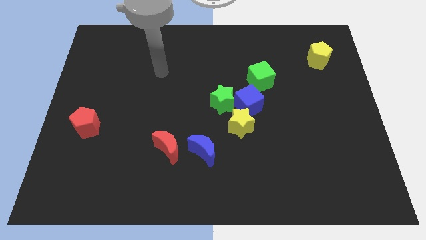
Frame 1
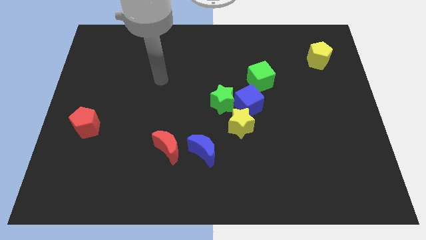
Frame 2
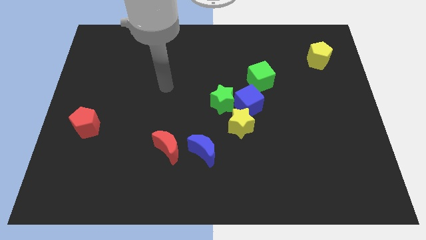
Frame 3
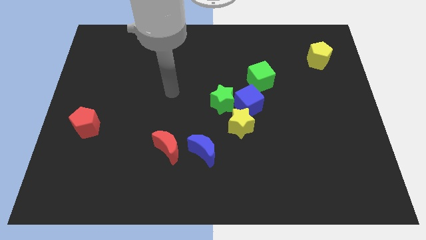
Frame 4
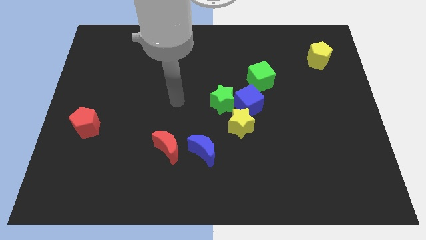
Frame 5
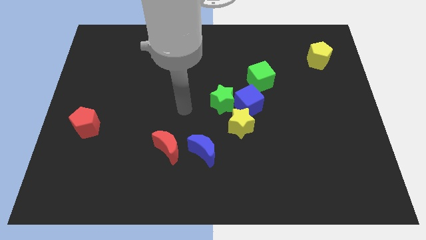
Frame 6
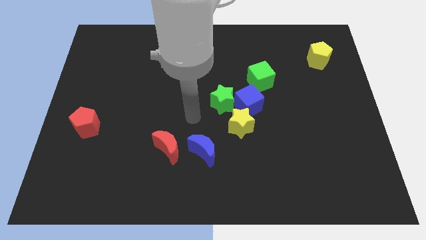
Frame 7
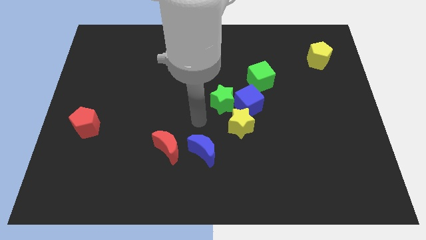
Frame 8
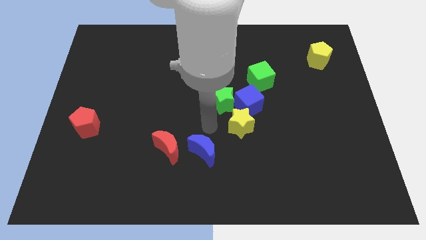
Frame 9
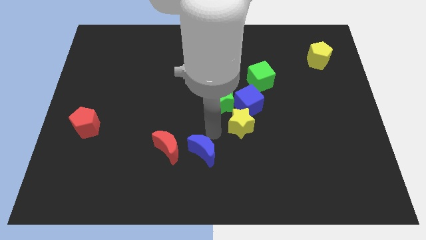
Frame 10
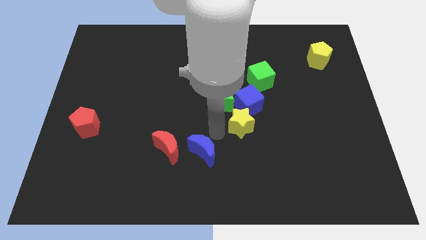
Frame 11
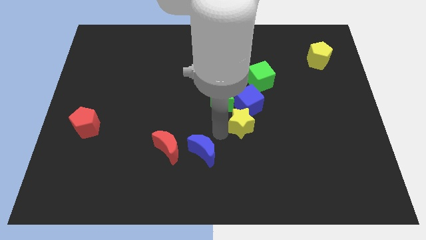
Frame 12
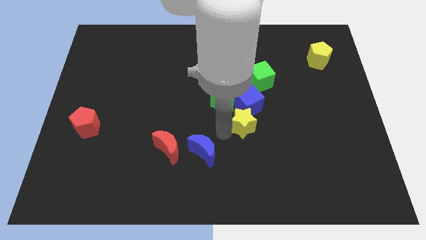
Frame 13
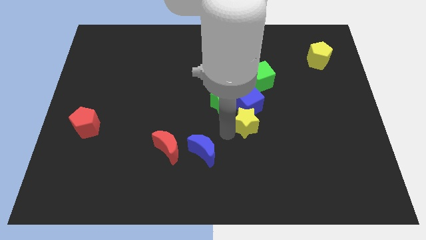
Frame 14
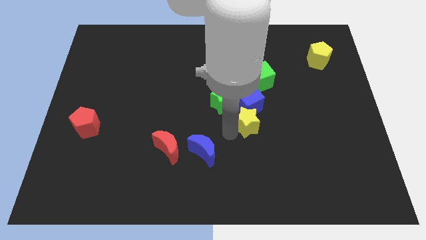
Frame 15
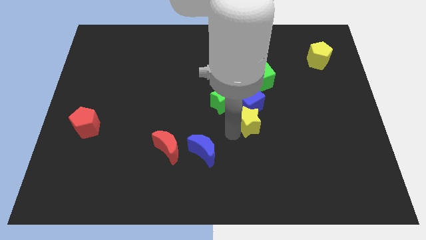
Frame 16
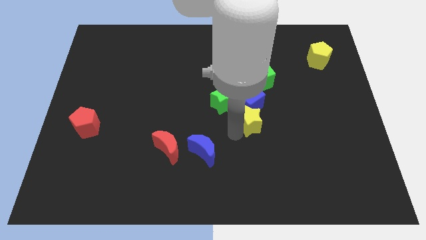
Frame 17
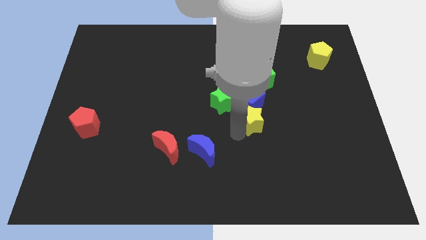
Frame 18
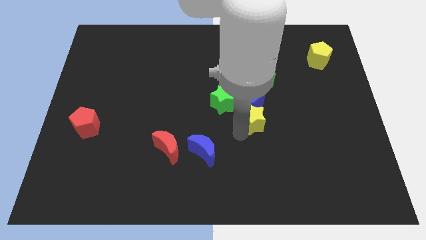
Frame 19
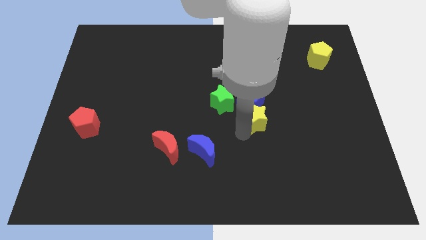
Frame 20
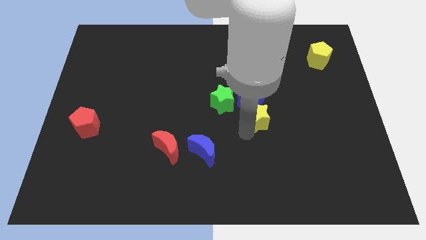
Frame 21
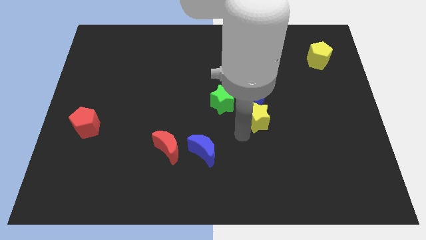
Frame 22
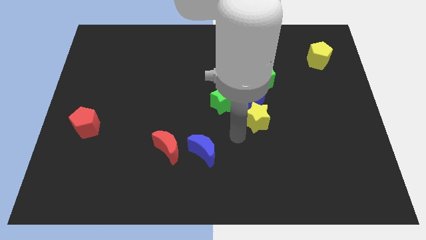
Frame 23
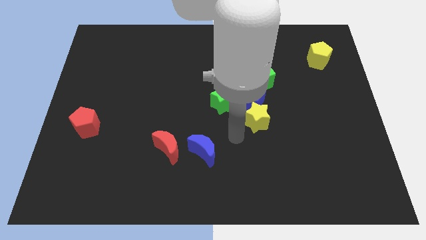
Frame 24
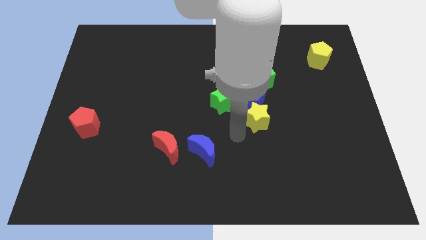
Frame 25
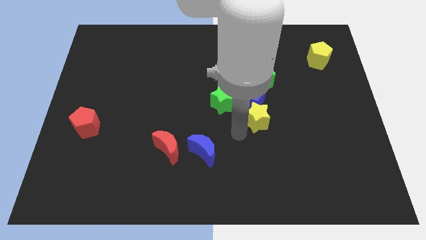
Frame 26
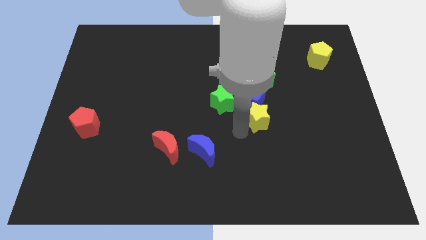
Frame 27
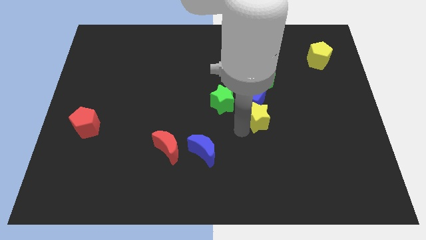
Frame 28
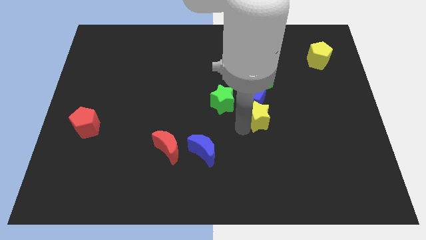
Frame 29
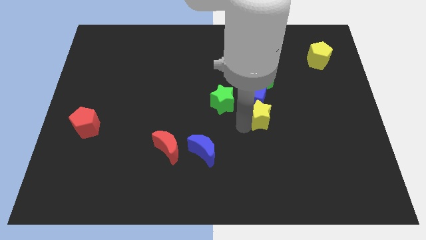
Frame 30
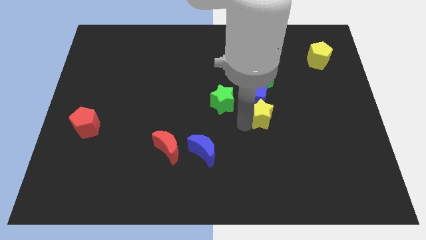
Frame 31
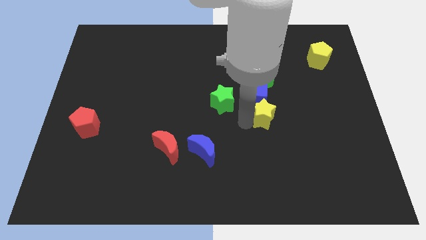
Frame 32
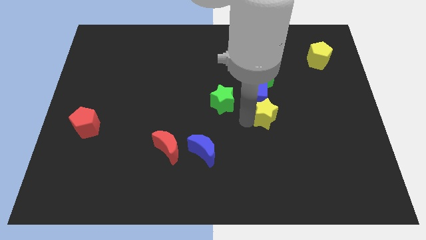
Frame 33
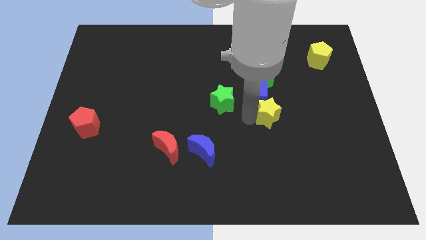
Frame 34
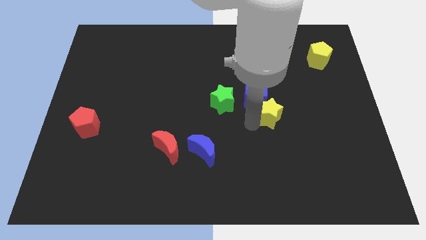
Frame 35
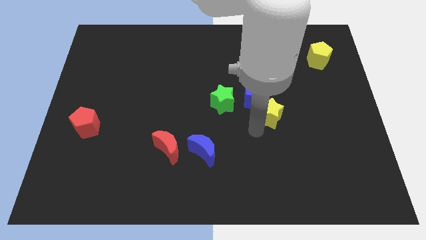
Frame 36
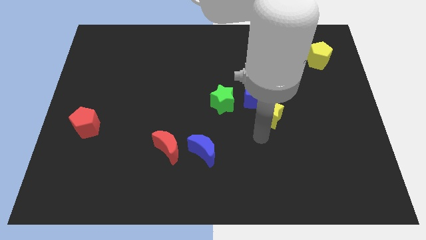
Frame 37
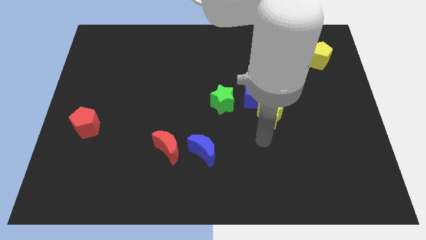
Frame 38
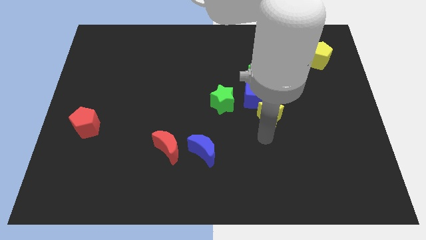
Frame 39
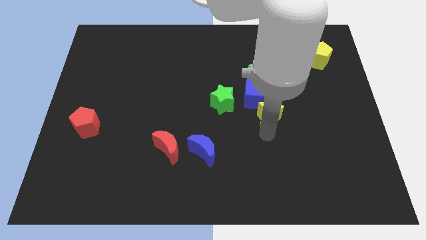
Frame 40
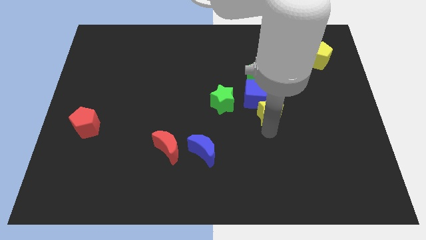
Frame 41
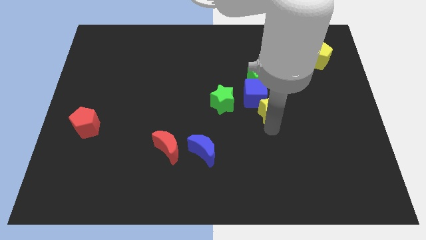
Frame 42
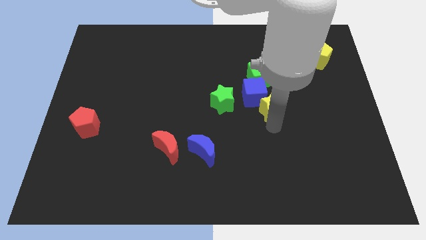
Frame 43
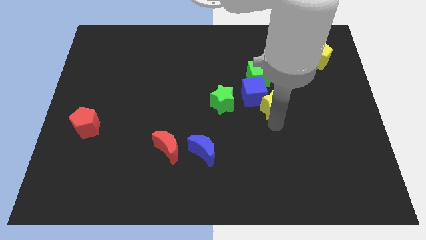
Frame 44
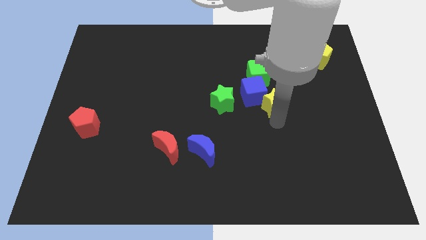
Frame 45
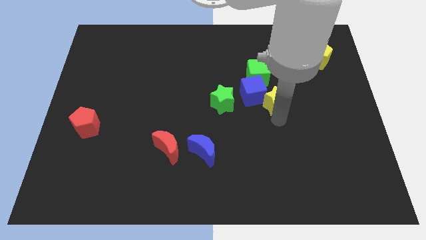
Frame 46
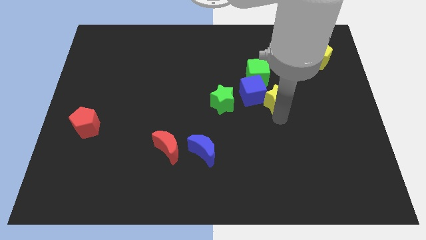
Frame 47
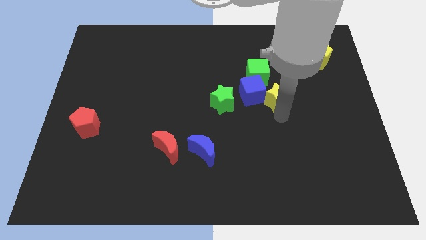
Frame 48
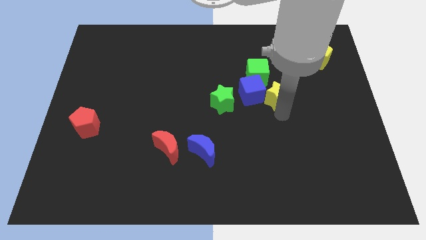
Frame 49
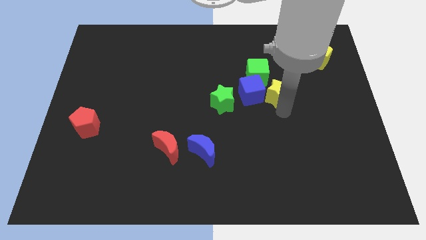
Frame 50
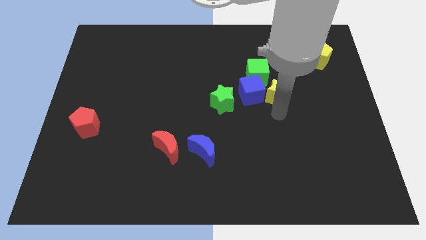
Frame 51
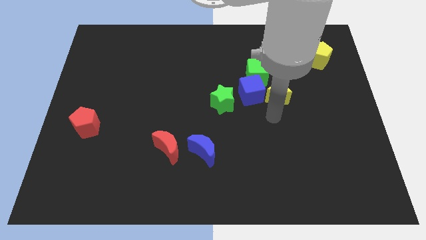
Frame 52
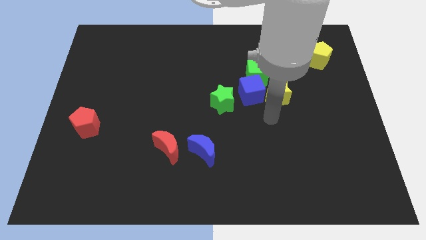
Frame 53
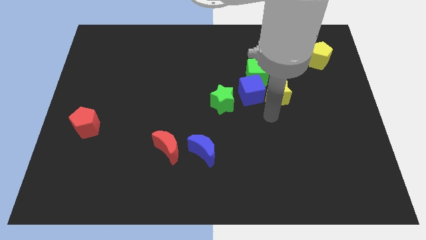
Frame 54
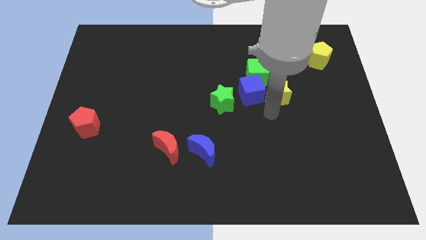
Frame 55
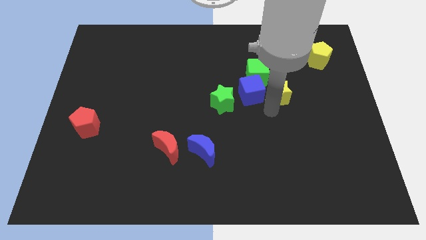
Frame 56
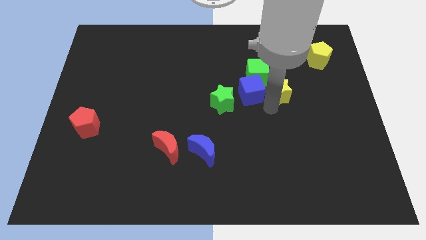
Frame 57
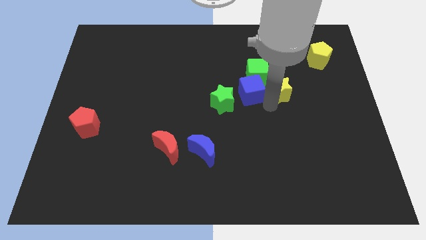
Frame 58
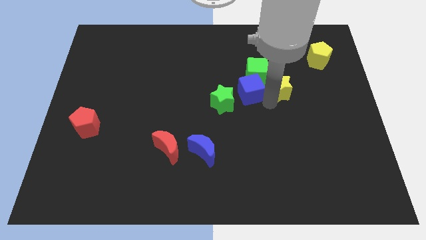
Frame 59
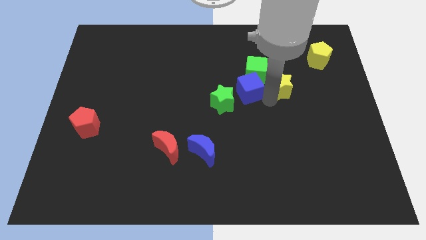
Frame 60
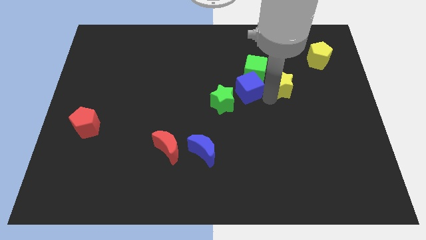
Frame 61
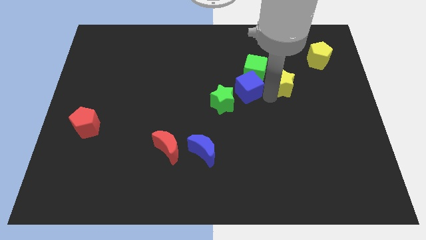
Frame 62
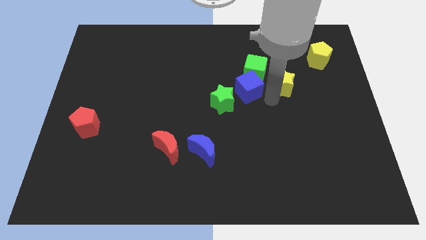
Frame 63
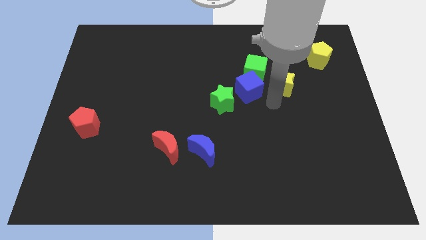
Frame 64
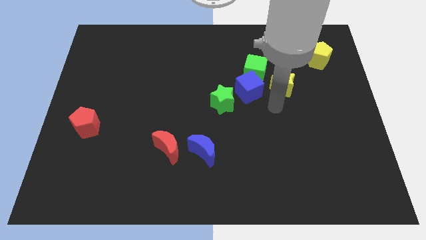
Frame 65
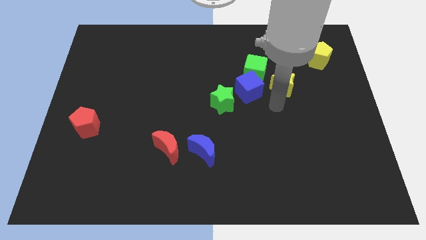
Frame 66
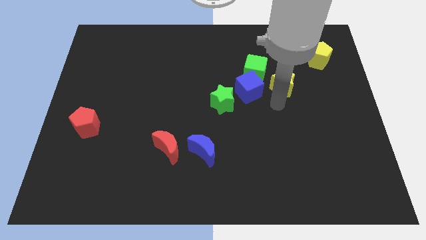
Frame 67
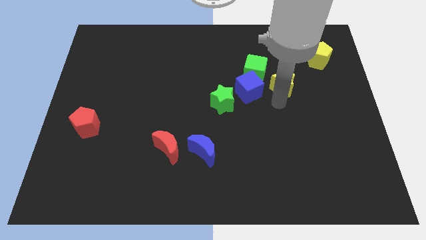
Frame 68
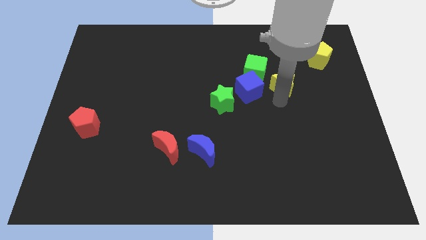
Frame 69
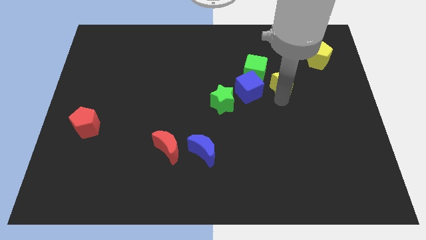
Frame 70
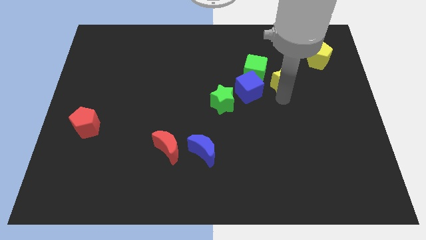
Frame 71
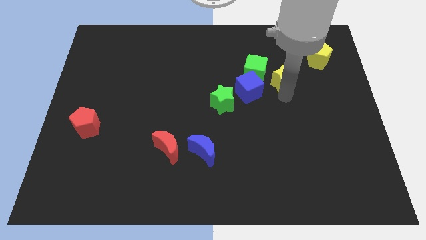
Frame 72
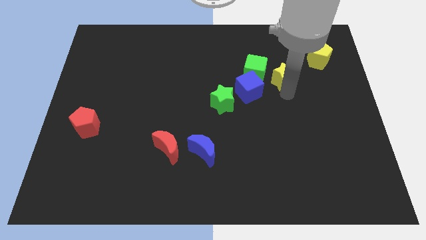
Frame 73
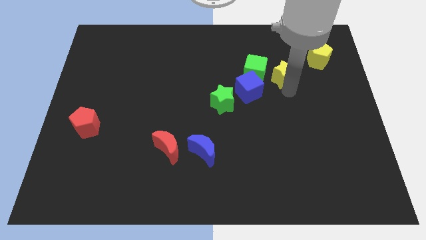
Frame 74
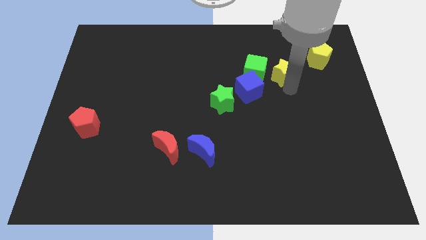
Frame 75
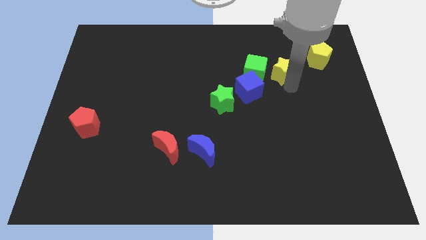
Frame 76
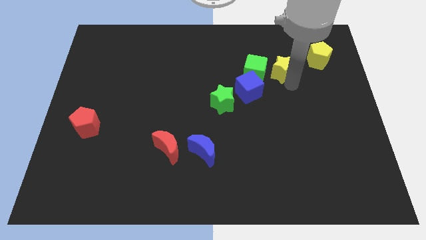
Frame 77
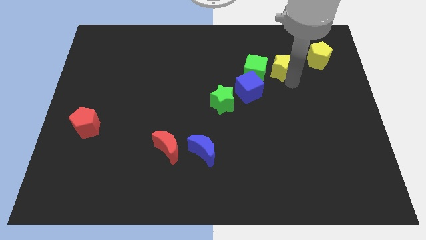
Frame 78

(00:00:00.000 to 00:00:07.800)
push the yellow star to the left of the yellow pentagon
